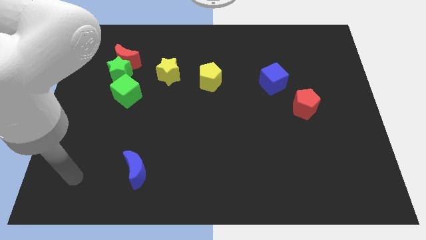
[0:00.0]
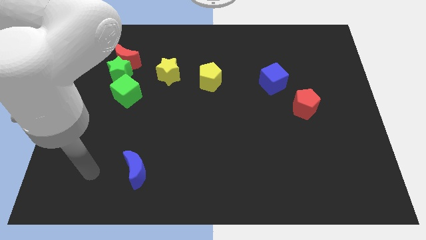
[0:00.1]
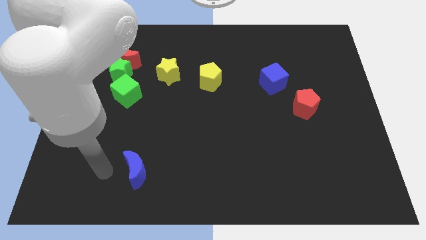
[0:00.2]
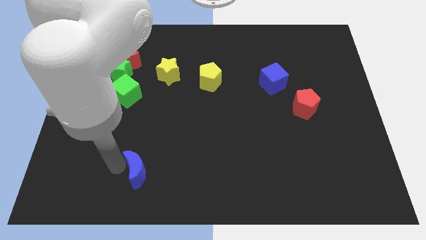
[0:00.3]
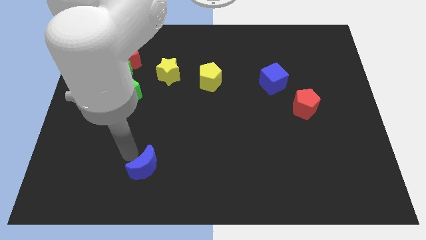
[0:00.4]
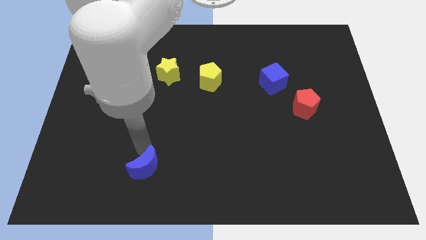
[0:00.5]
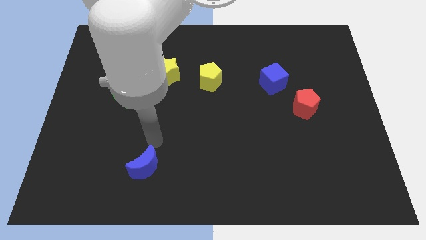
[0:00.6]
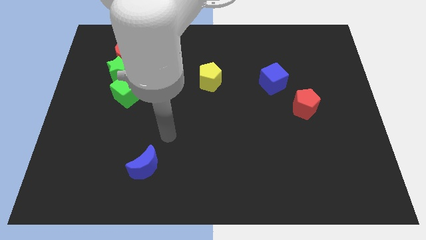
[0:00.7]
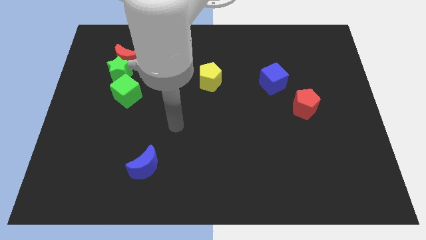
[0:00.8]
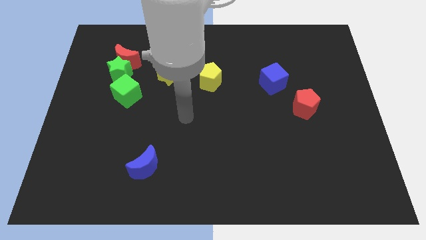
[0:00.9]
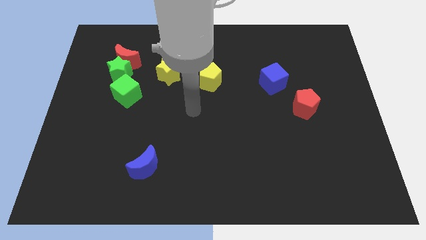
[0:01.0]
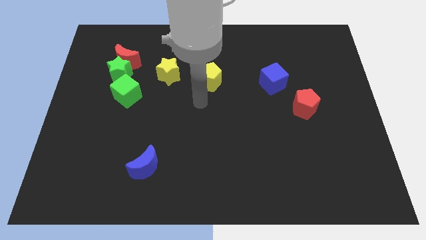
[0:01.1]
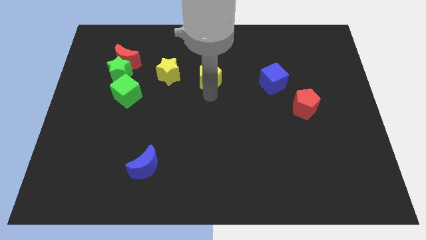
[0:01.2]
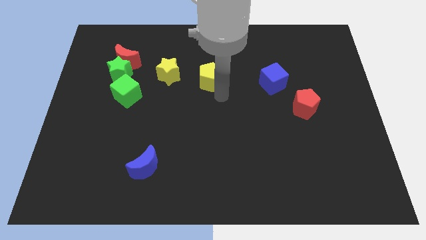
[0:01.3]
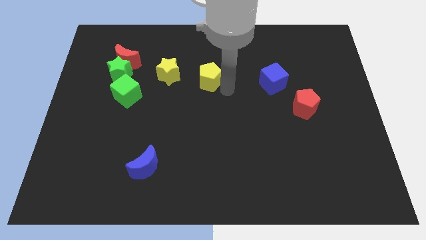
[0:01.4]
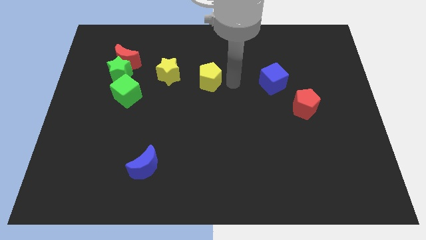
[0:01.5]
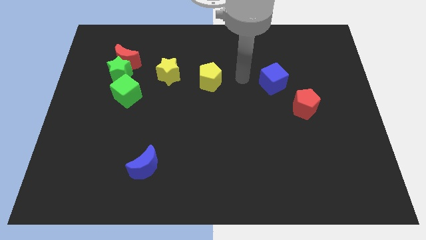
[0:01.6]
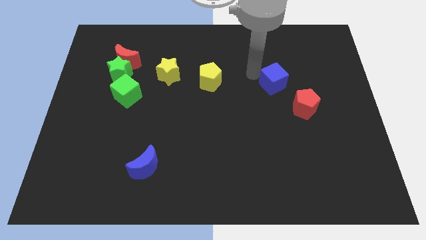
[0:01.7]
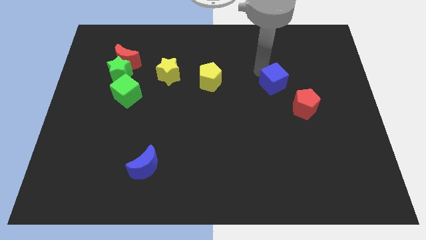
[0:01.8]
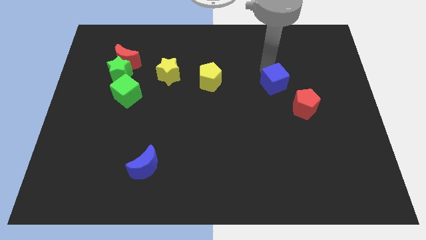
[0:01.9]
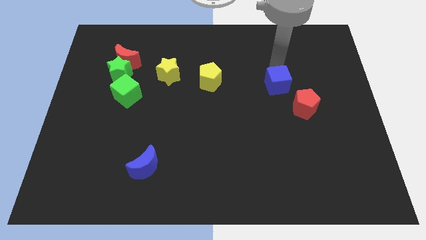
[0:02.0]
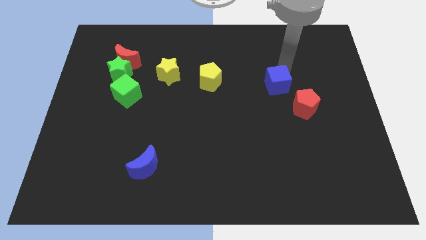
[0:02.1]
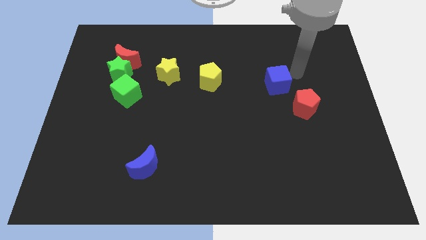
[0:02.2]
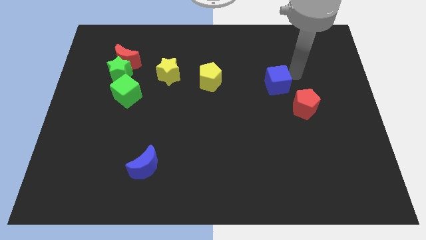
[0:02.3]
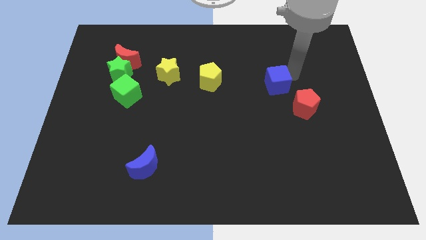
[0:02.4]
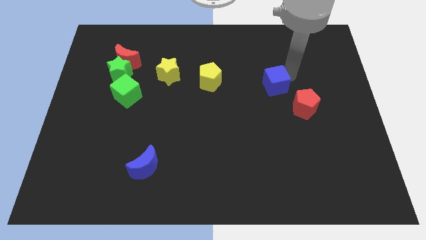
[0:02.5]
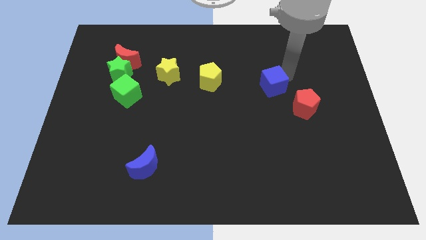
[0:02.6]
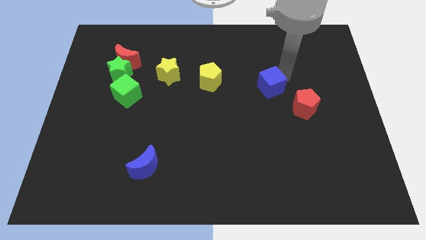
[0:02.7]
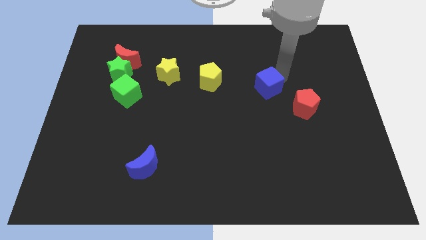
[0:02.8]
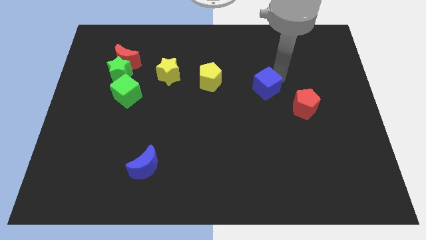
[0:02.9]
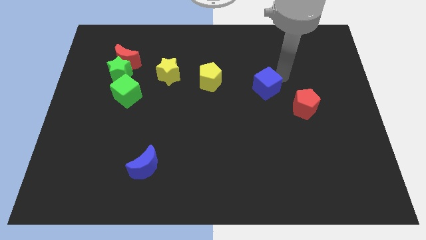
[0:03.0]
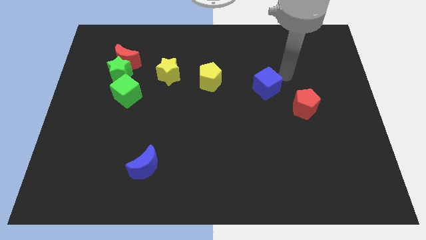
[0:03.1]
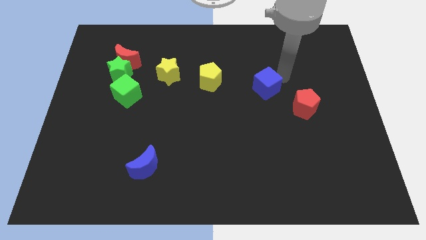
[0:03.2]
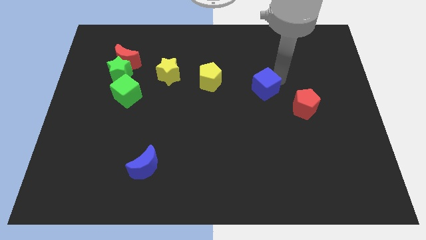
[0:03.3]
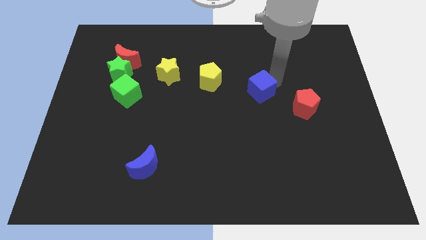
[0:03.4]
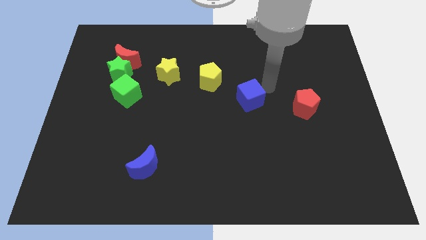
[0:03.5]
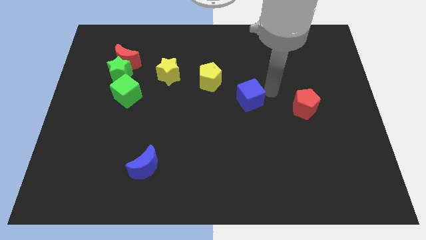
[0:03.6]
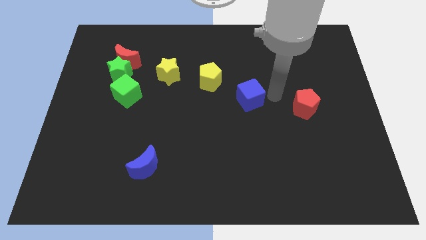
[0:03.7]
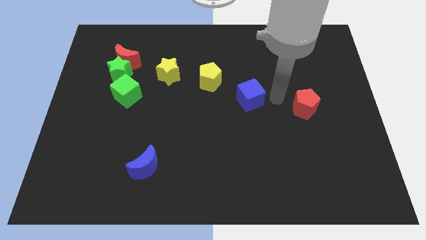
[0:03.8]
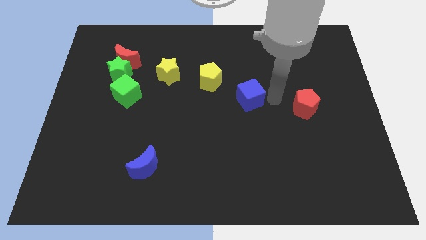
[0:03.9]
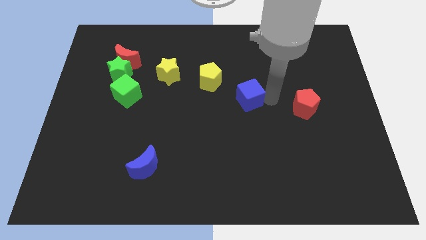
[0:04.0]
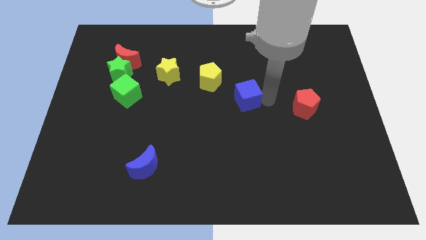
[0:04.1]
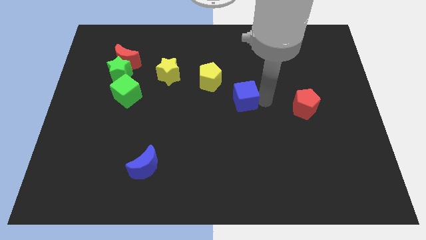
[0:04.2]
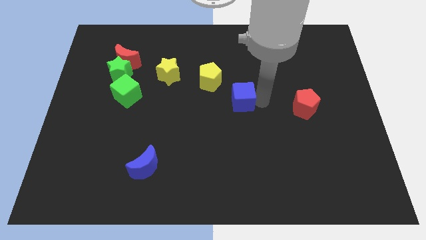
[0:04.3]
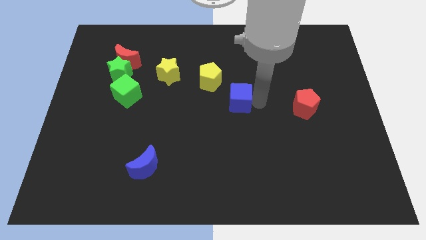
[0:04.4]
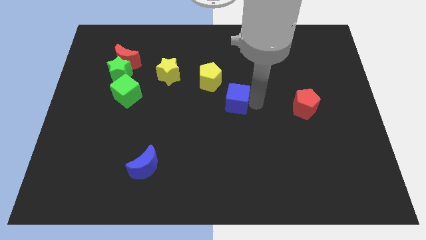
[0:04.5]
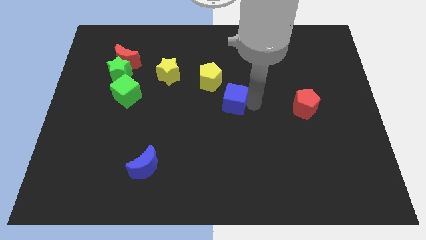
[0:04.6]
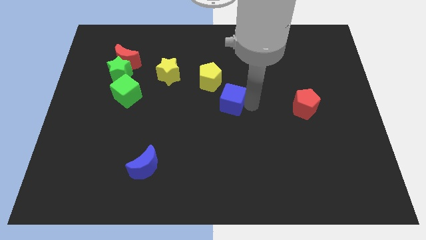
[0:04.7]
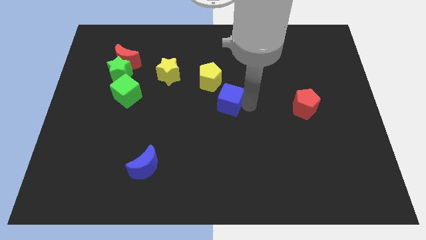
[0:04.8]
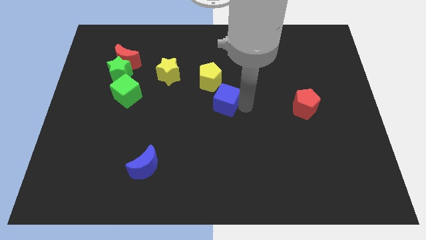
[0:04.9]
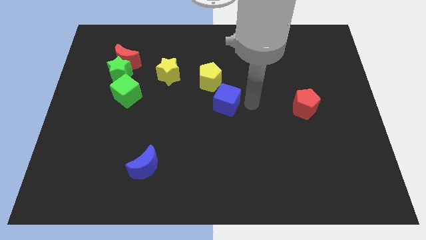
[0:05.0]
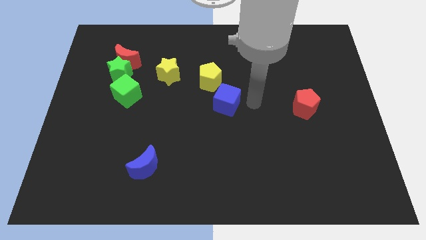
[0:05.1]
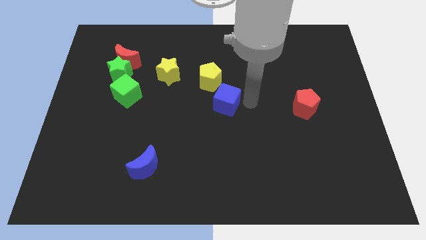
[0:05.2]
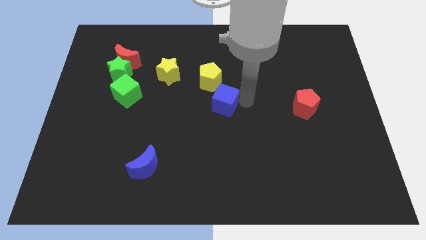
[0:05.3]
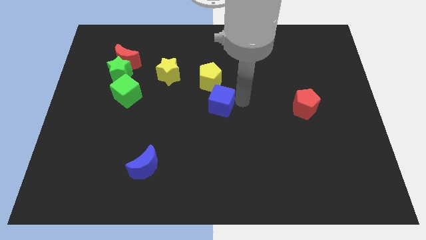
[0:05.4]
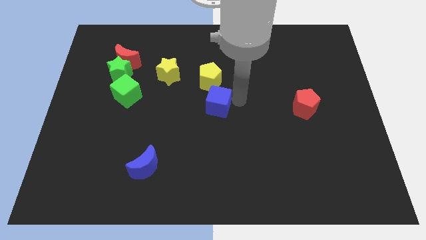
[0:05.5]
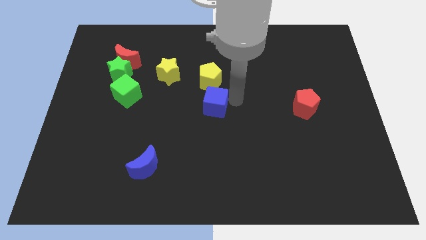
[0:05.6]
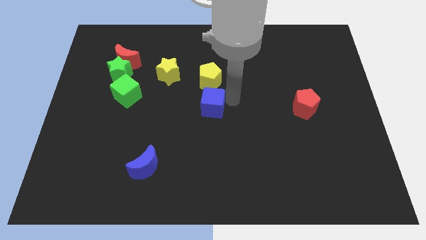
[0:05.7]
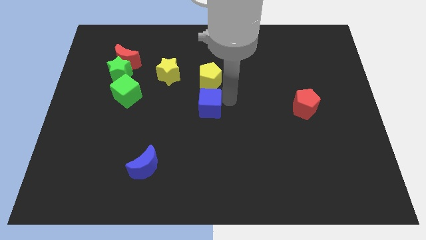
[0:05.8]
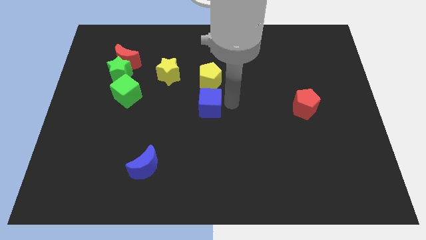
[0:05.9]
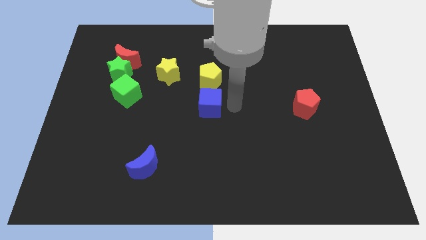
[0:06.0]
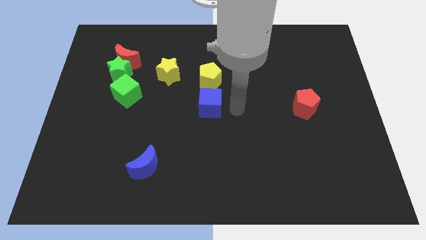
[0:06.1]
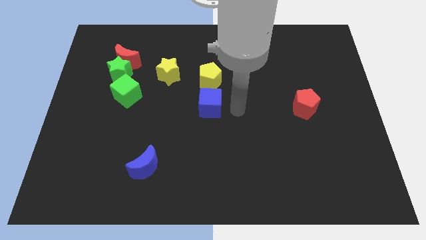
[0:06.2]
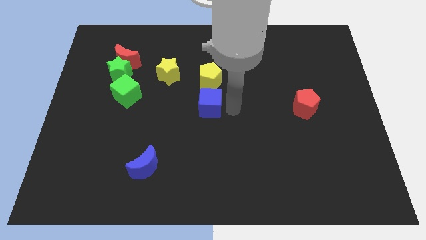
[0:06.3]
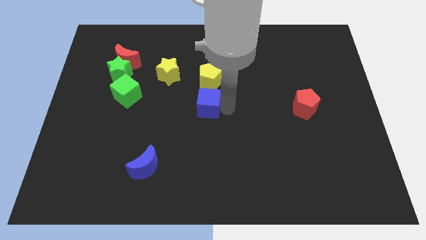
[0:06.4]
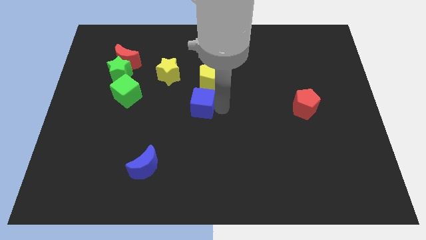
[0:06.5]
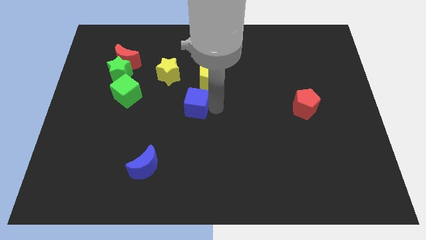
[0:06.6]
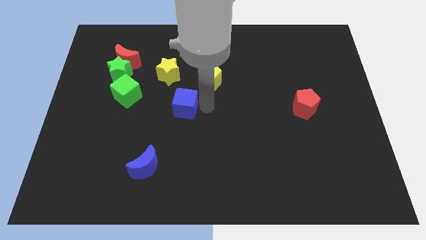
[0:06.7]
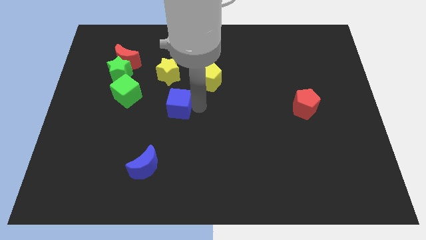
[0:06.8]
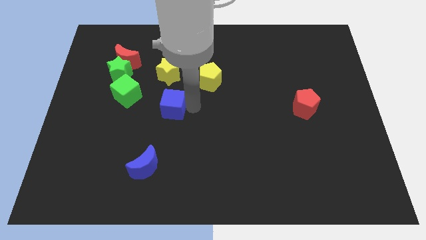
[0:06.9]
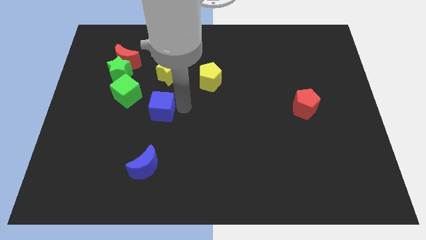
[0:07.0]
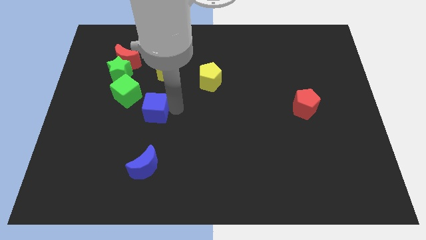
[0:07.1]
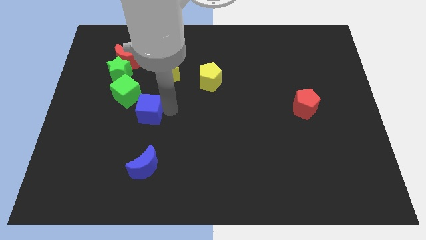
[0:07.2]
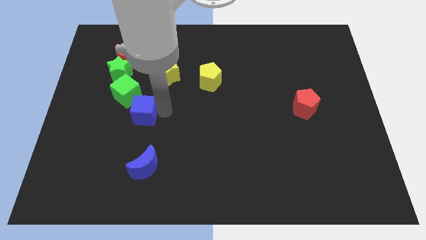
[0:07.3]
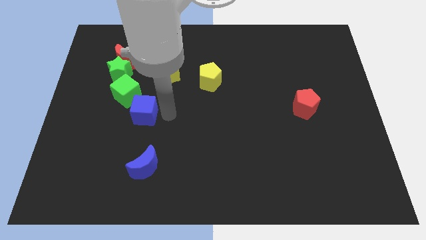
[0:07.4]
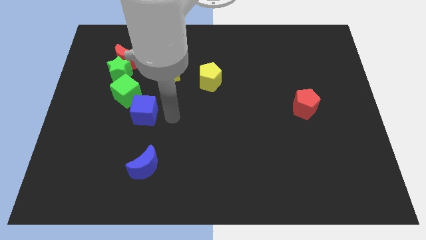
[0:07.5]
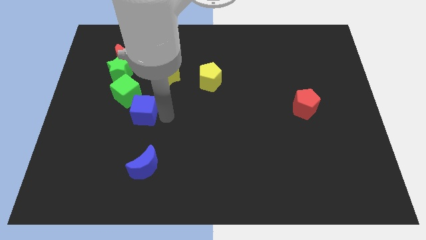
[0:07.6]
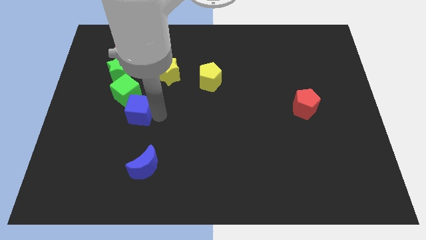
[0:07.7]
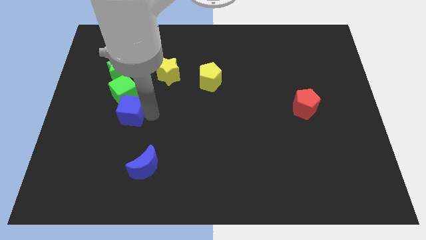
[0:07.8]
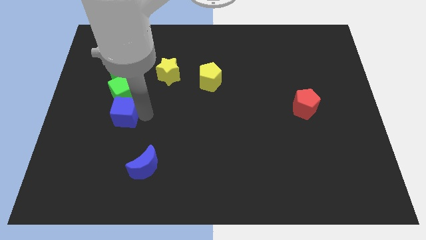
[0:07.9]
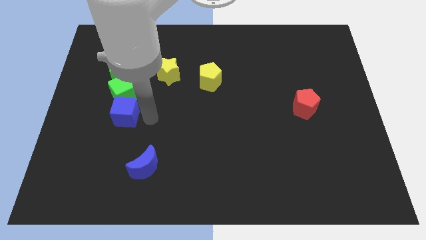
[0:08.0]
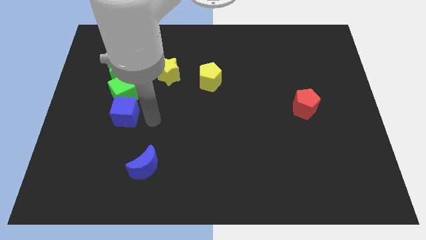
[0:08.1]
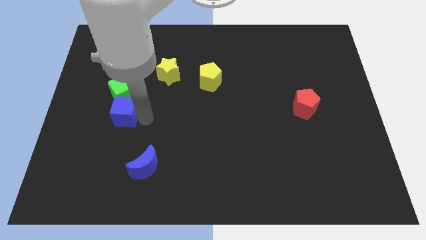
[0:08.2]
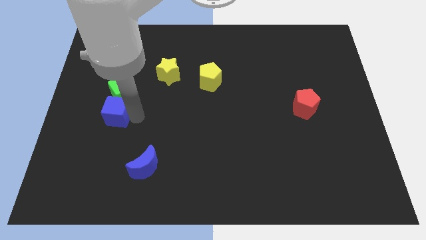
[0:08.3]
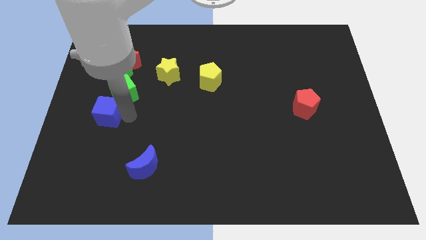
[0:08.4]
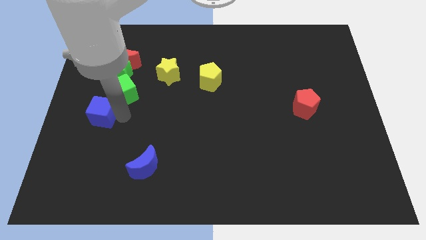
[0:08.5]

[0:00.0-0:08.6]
move the blue cube to the center left
